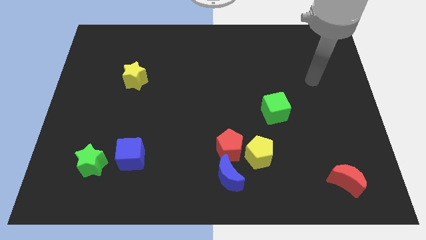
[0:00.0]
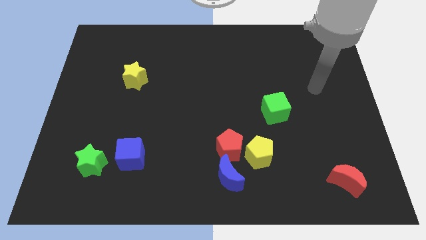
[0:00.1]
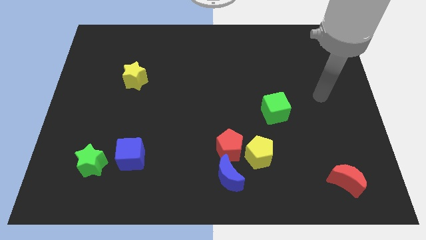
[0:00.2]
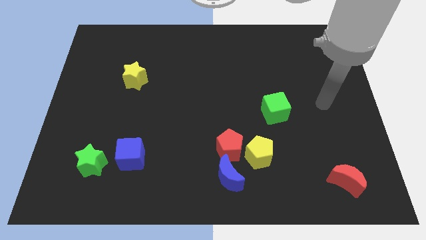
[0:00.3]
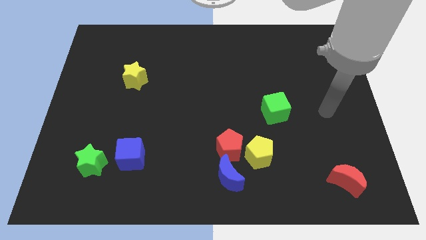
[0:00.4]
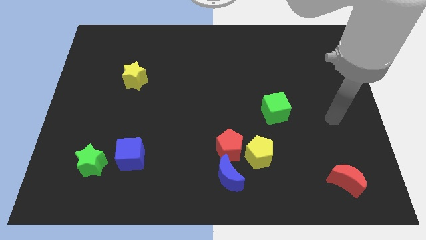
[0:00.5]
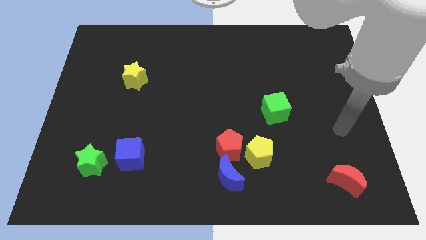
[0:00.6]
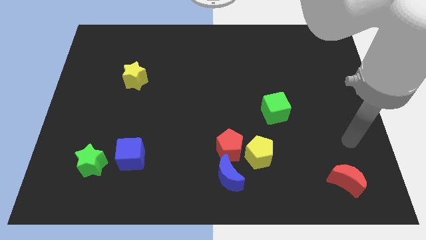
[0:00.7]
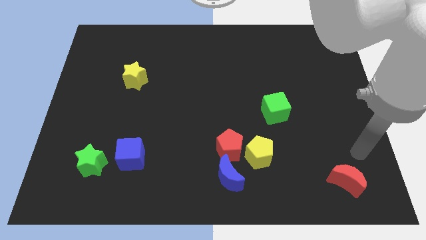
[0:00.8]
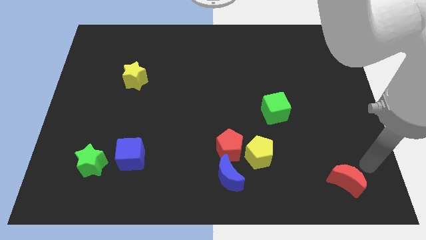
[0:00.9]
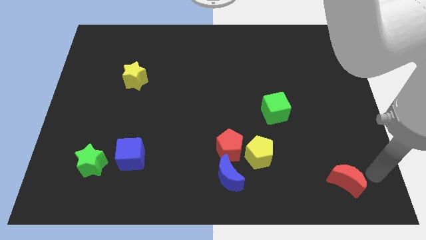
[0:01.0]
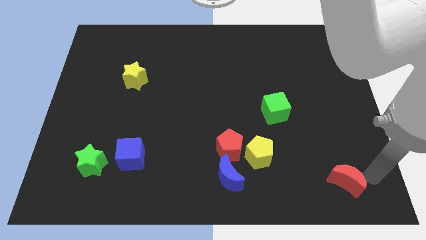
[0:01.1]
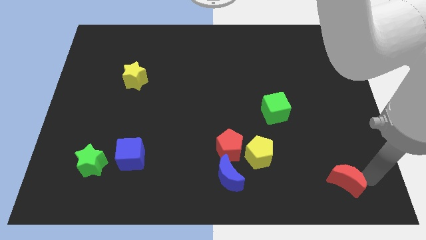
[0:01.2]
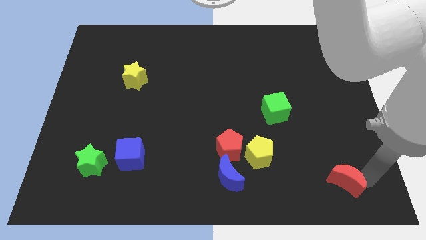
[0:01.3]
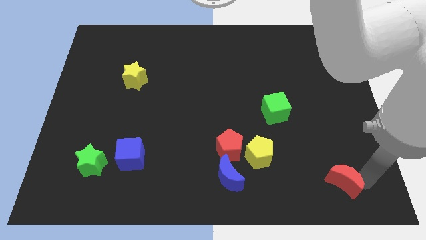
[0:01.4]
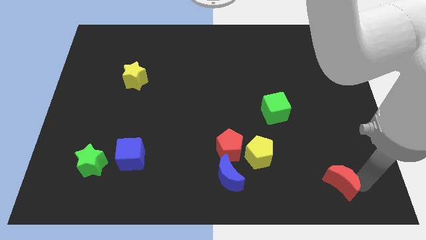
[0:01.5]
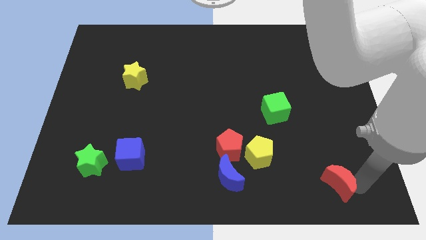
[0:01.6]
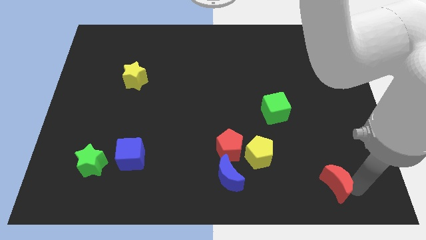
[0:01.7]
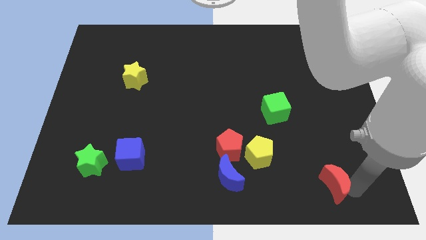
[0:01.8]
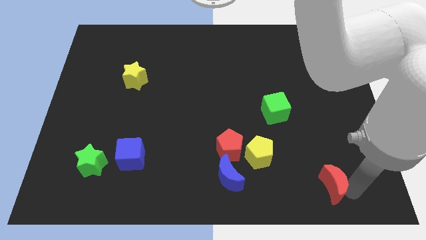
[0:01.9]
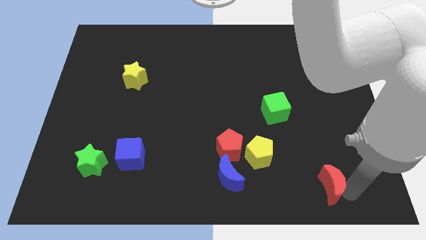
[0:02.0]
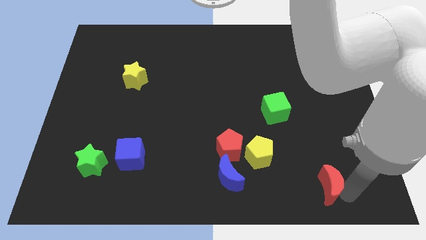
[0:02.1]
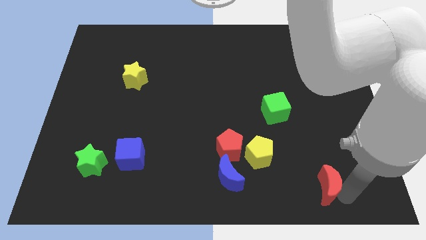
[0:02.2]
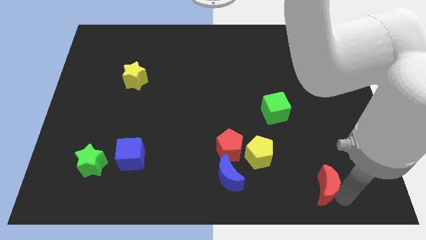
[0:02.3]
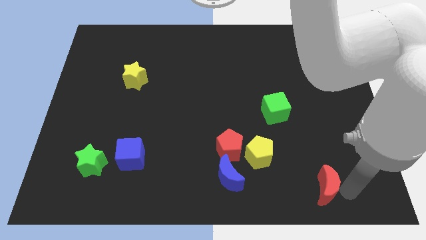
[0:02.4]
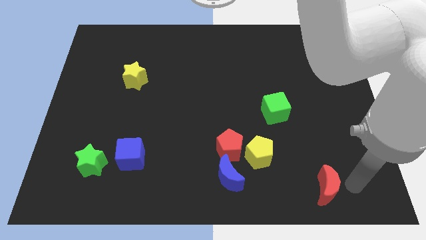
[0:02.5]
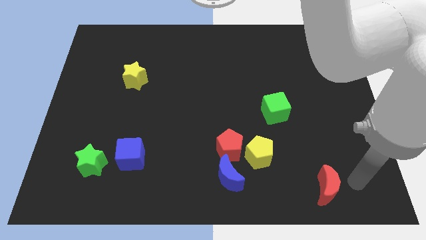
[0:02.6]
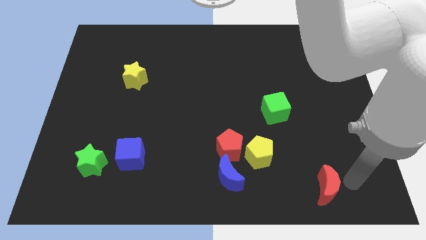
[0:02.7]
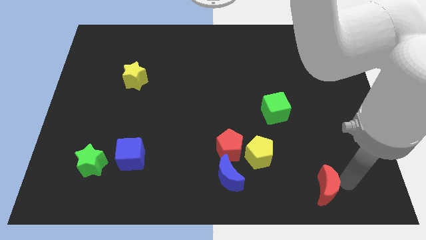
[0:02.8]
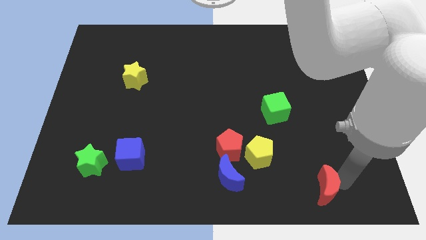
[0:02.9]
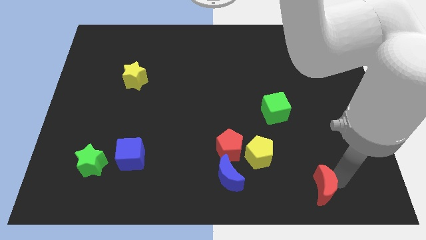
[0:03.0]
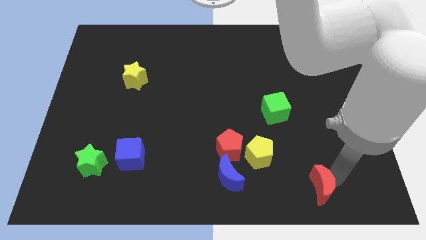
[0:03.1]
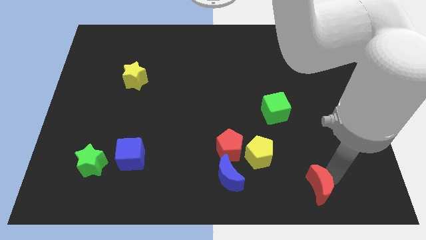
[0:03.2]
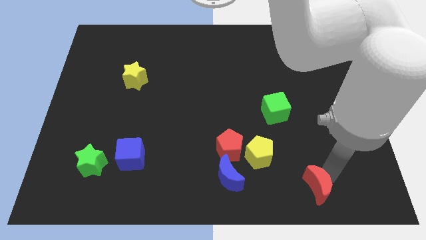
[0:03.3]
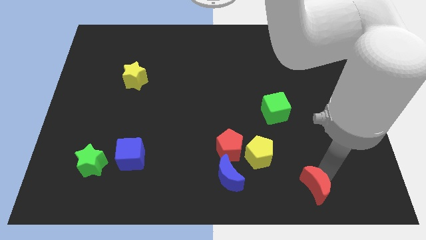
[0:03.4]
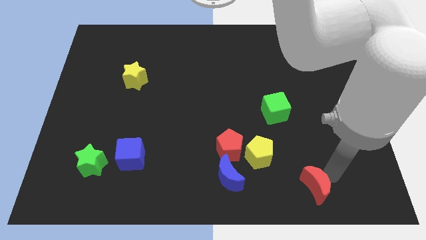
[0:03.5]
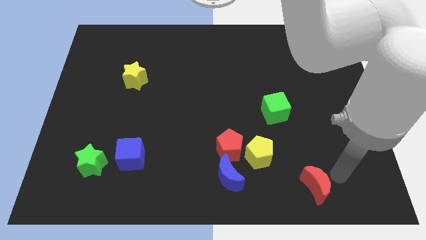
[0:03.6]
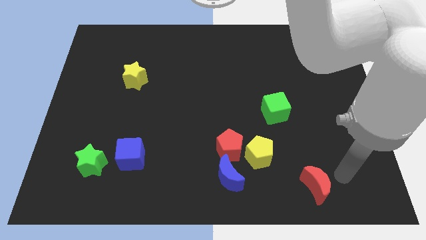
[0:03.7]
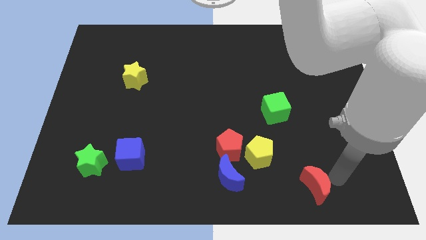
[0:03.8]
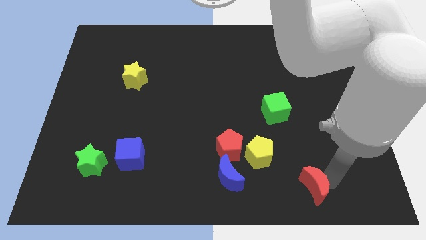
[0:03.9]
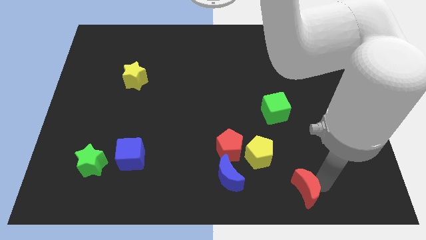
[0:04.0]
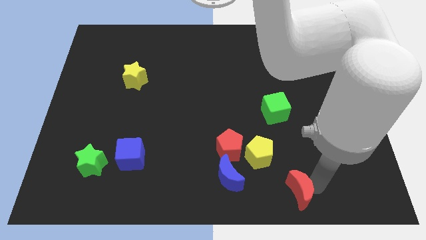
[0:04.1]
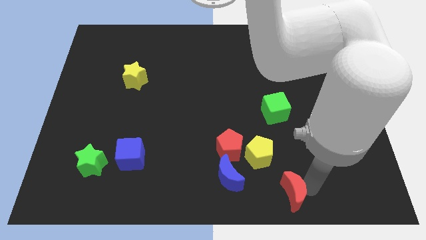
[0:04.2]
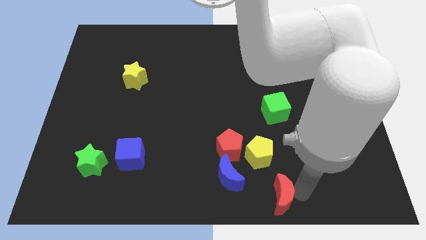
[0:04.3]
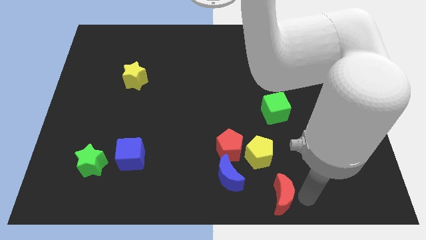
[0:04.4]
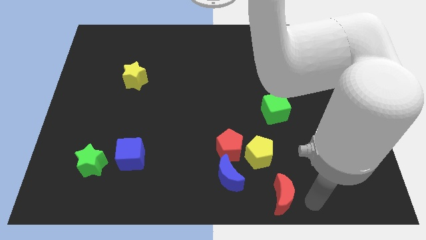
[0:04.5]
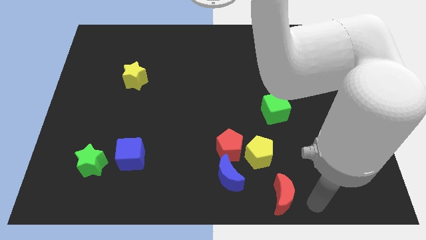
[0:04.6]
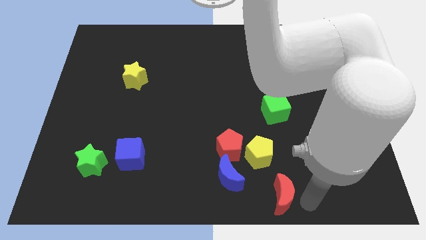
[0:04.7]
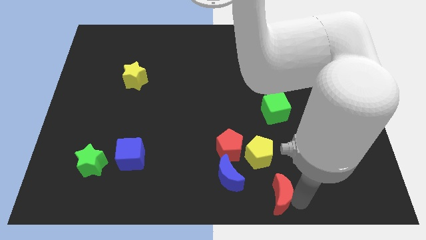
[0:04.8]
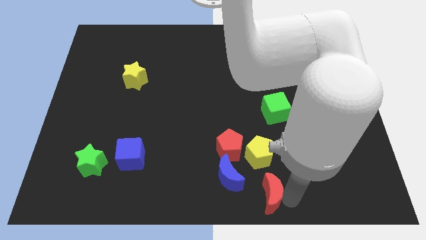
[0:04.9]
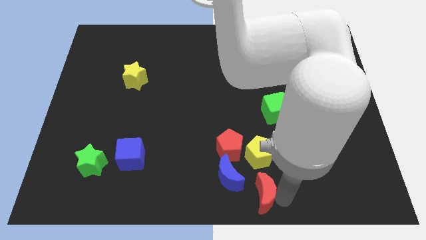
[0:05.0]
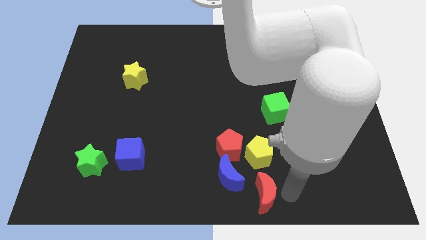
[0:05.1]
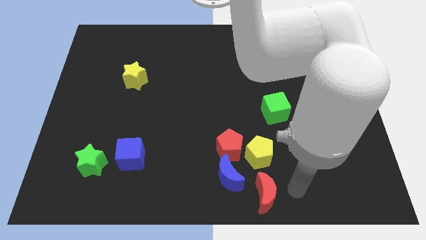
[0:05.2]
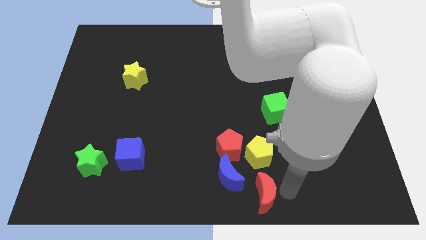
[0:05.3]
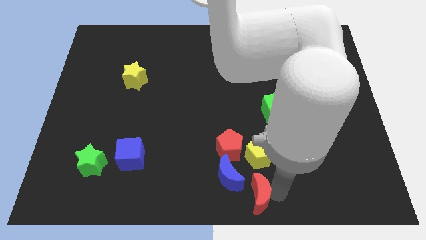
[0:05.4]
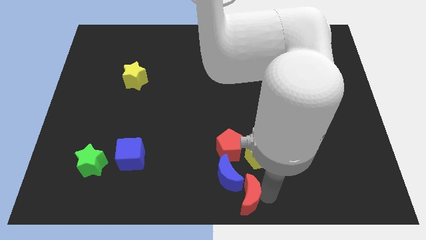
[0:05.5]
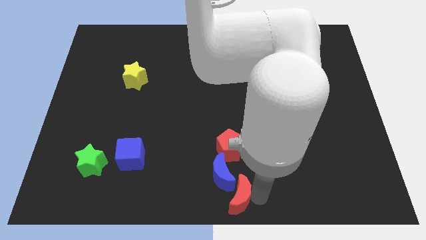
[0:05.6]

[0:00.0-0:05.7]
slide the red moon left

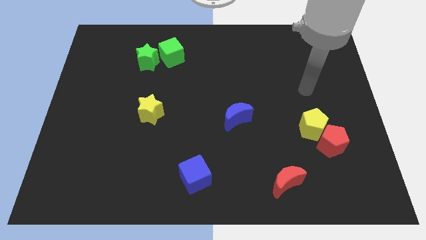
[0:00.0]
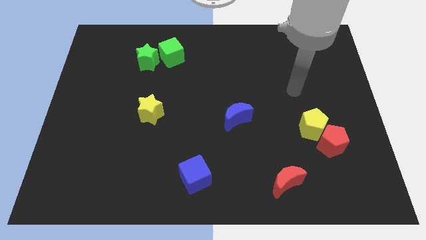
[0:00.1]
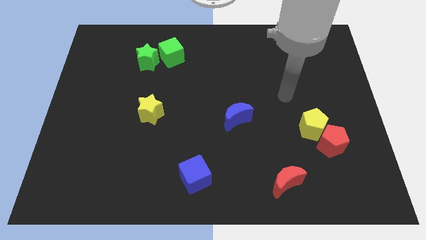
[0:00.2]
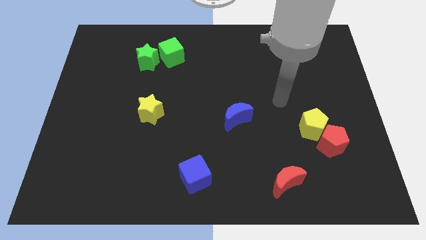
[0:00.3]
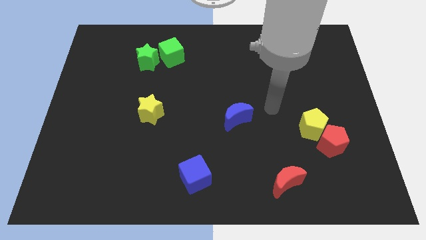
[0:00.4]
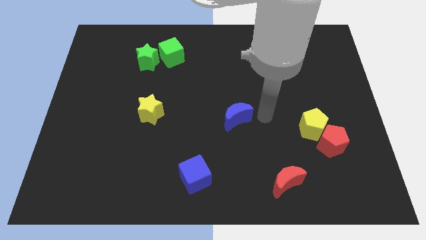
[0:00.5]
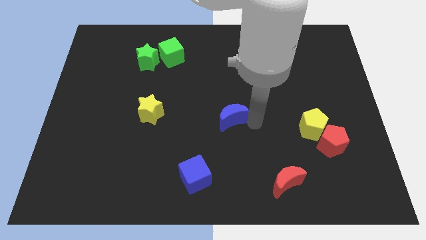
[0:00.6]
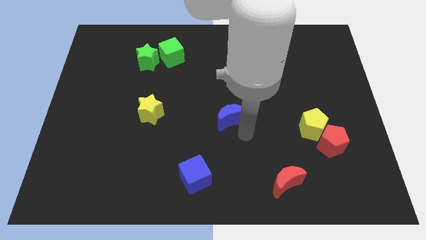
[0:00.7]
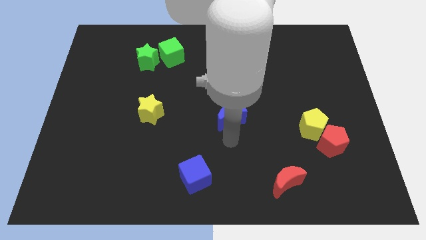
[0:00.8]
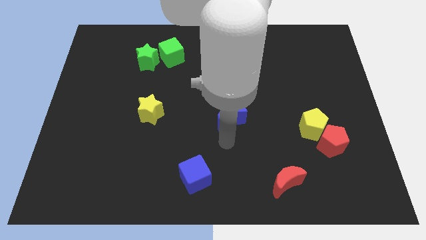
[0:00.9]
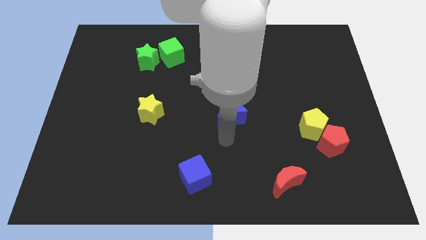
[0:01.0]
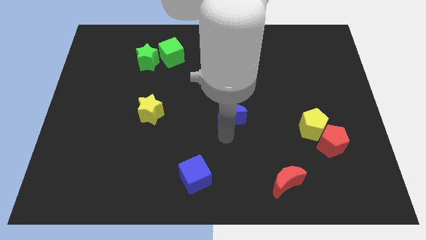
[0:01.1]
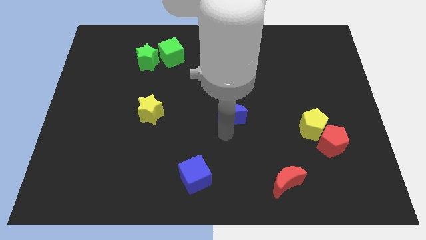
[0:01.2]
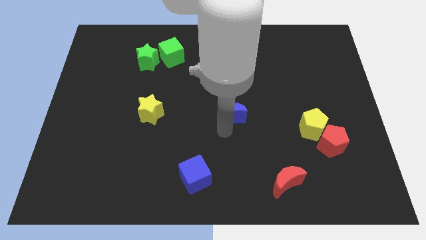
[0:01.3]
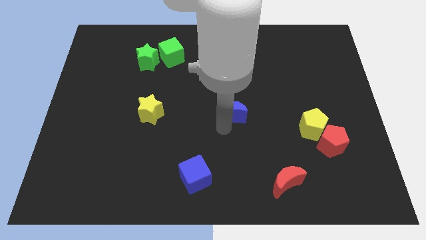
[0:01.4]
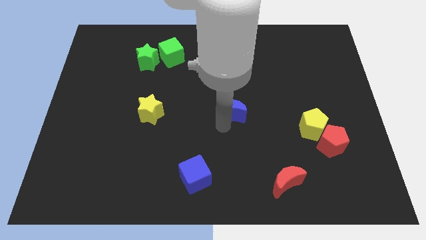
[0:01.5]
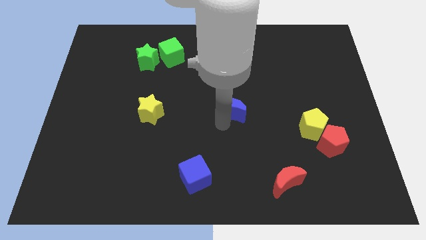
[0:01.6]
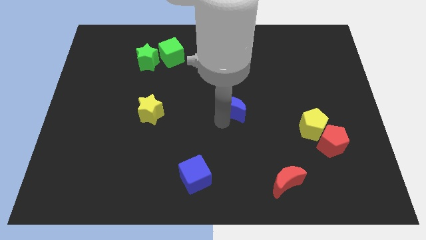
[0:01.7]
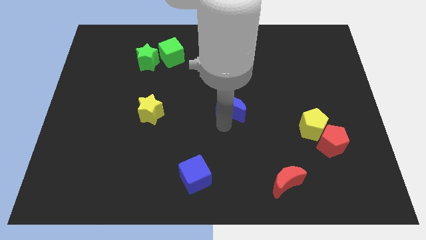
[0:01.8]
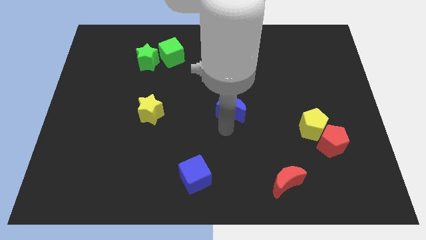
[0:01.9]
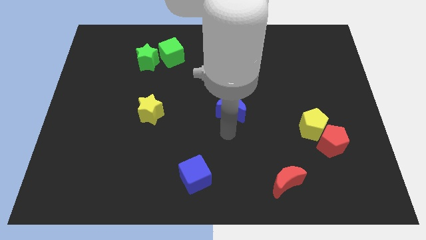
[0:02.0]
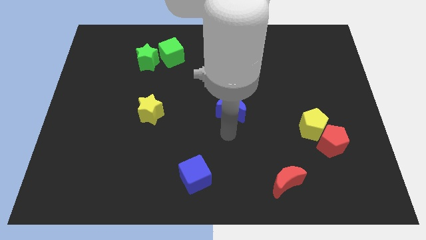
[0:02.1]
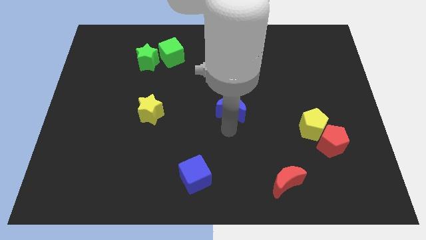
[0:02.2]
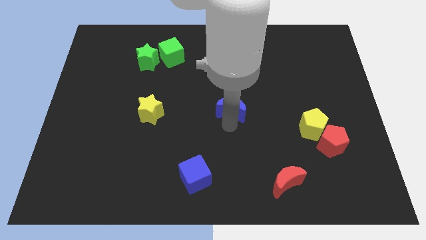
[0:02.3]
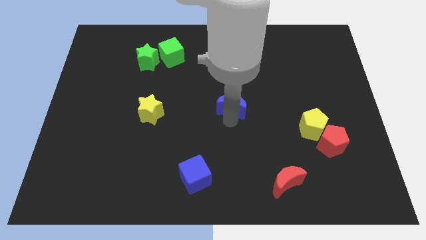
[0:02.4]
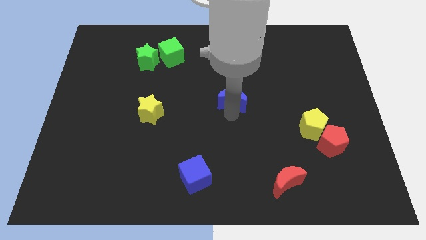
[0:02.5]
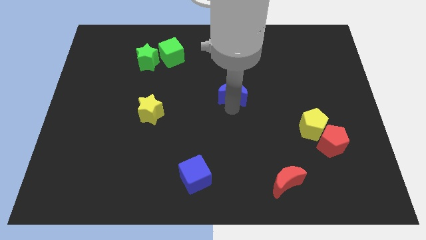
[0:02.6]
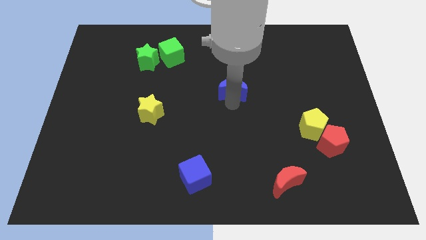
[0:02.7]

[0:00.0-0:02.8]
slightly slide the blue moon up
